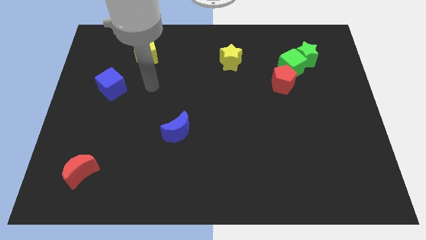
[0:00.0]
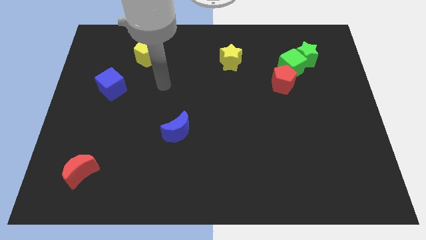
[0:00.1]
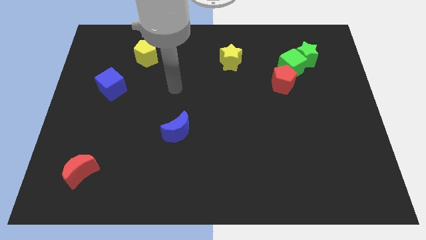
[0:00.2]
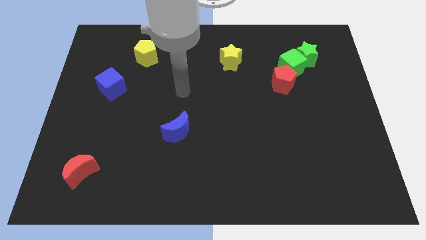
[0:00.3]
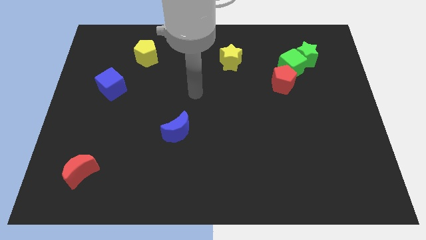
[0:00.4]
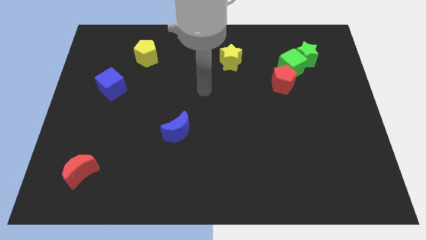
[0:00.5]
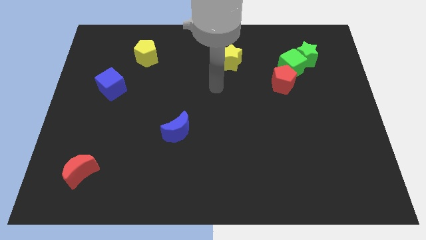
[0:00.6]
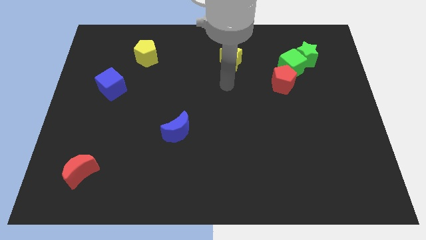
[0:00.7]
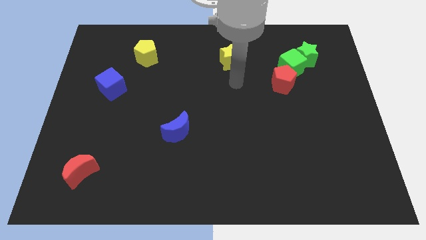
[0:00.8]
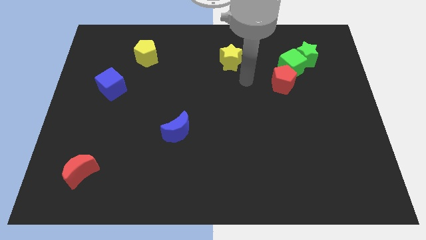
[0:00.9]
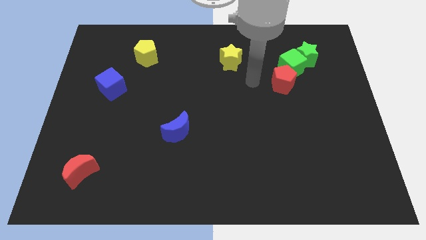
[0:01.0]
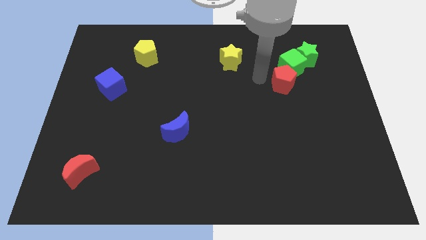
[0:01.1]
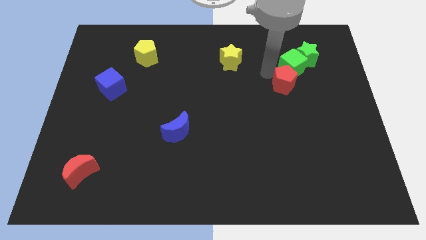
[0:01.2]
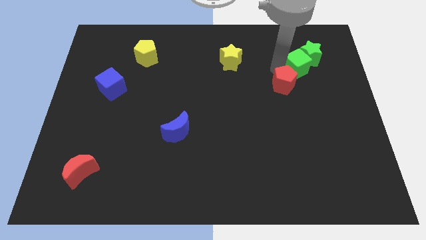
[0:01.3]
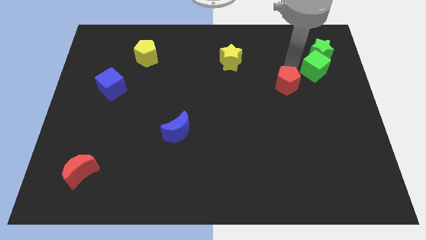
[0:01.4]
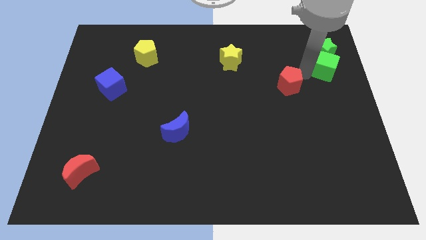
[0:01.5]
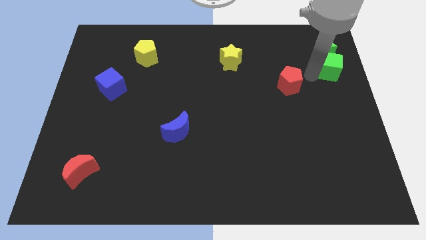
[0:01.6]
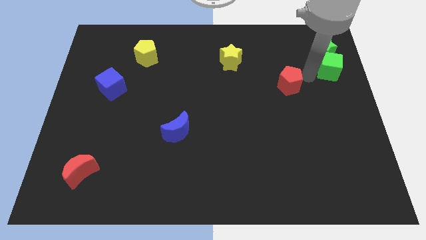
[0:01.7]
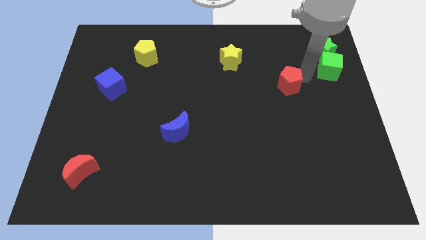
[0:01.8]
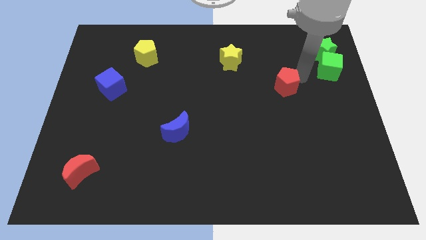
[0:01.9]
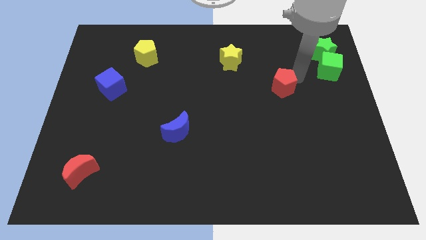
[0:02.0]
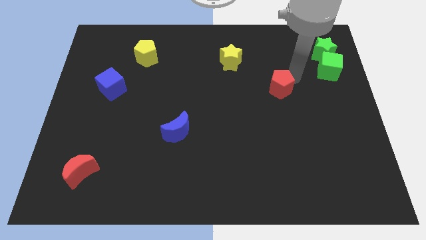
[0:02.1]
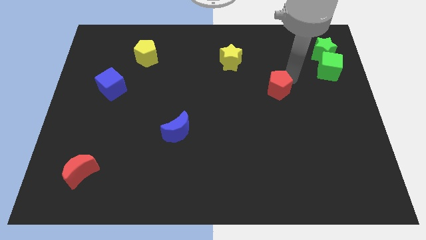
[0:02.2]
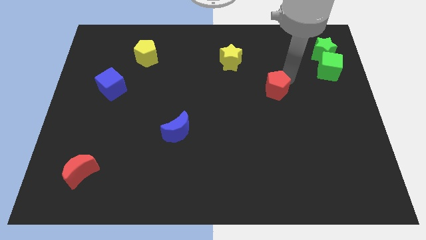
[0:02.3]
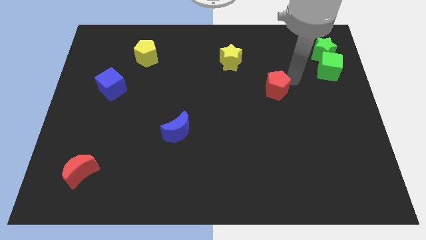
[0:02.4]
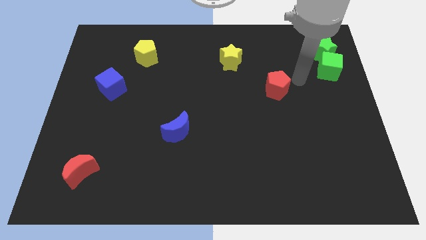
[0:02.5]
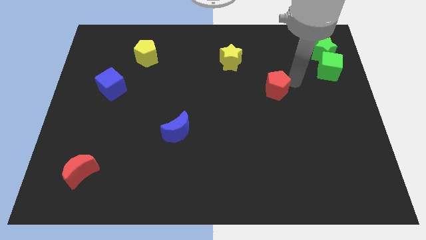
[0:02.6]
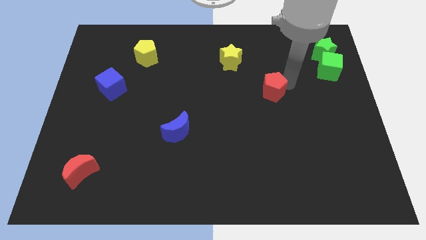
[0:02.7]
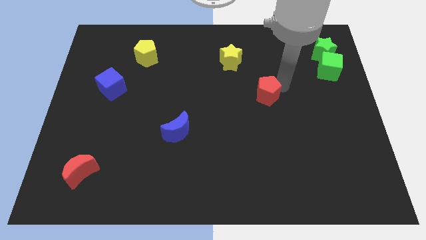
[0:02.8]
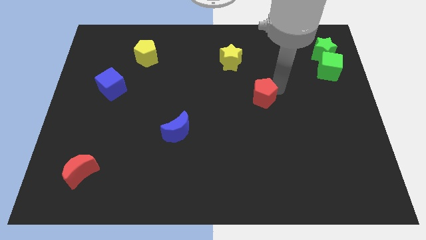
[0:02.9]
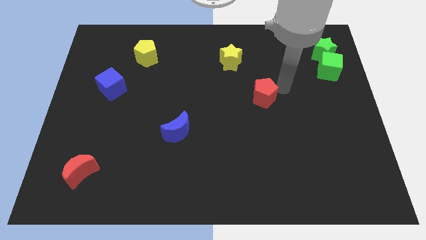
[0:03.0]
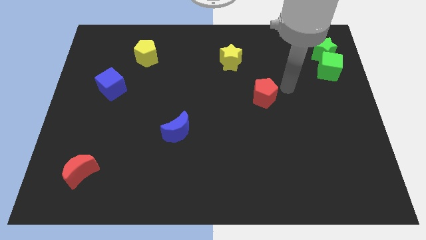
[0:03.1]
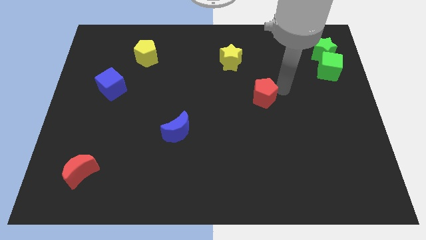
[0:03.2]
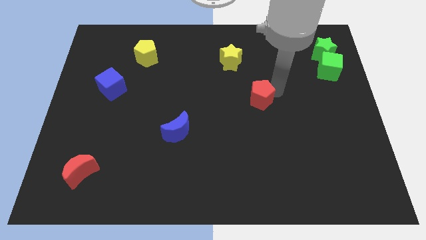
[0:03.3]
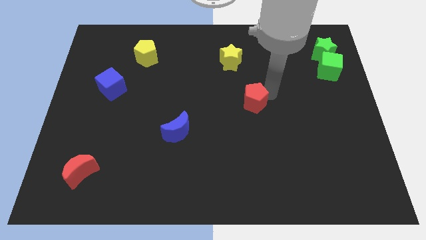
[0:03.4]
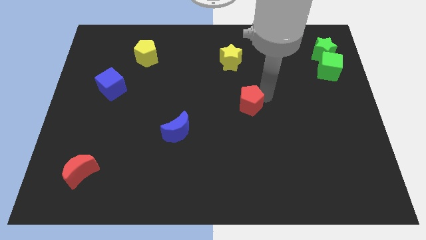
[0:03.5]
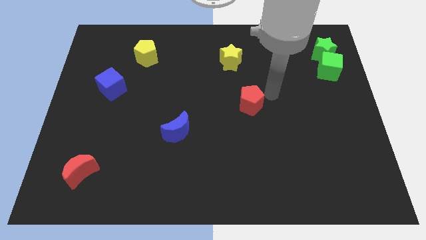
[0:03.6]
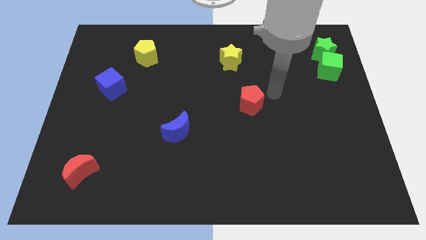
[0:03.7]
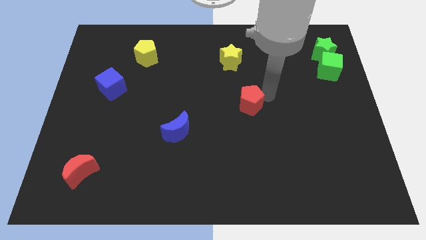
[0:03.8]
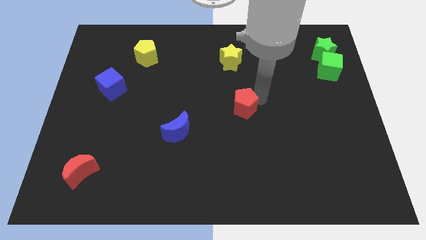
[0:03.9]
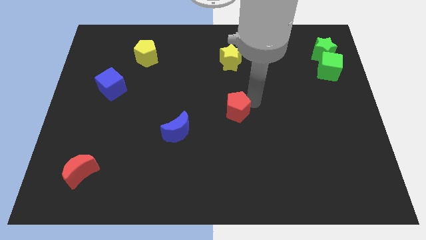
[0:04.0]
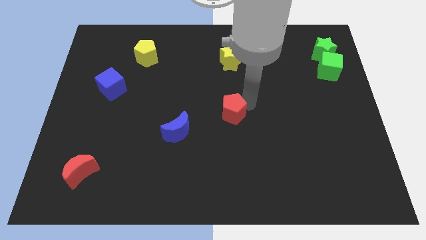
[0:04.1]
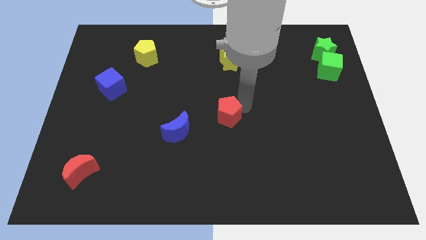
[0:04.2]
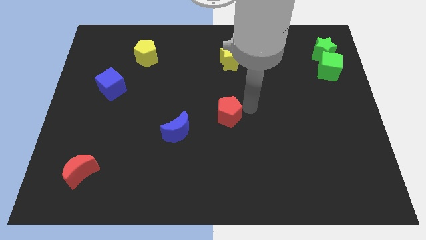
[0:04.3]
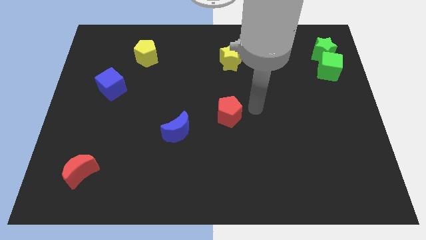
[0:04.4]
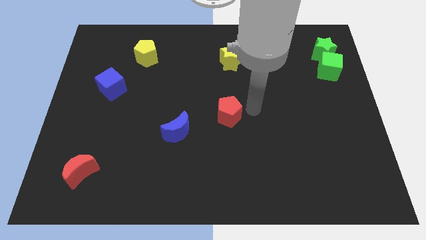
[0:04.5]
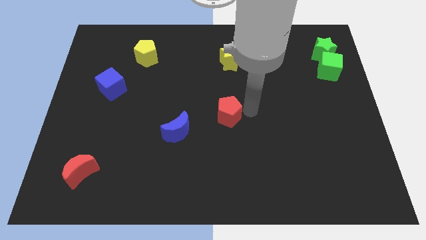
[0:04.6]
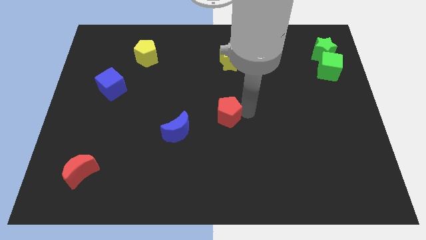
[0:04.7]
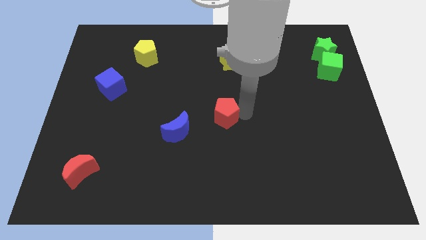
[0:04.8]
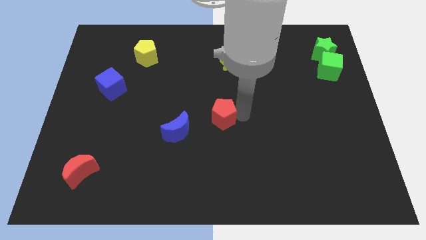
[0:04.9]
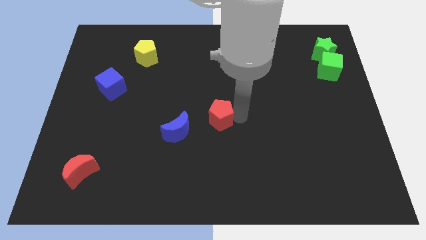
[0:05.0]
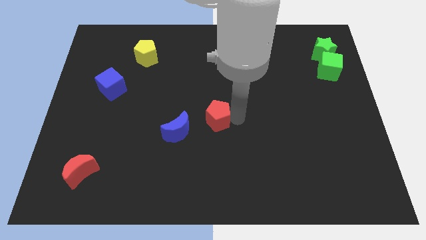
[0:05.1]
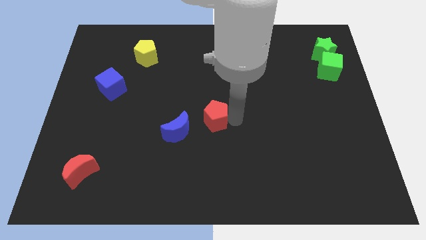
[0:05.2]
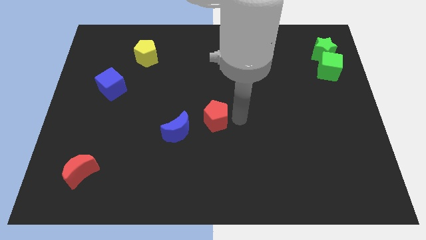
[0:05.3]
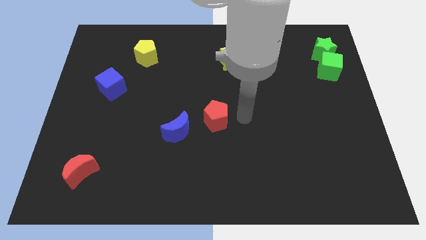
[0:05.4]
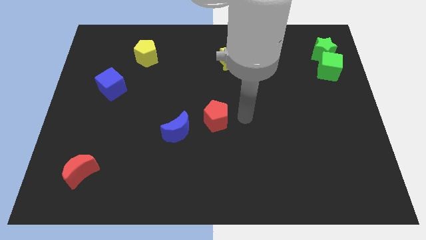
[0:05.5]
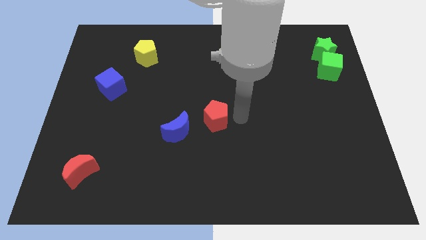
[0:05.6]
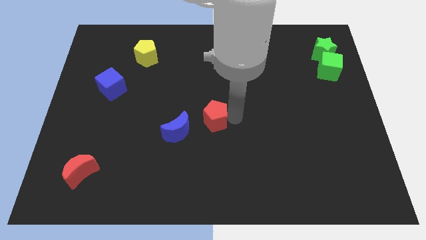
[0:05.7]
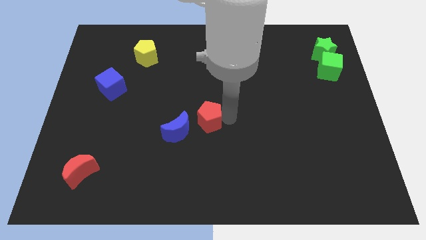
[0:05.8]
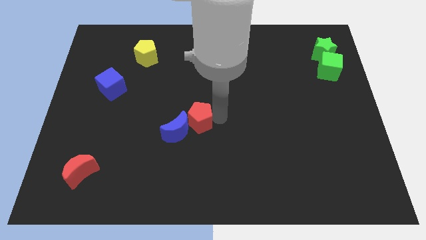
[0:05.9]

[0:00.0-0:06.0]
move the red pentagon close to the blue moon

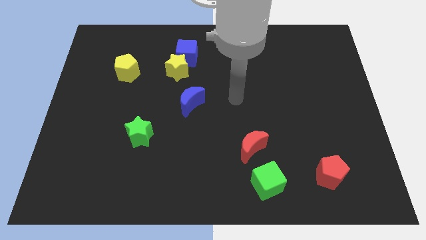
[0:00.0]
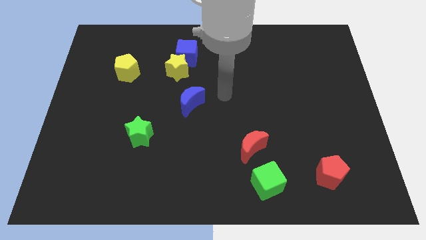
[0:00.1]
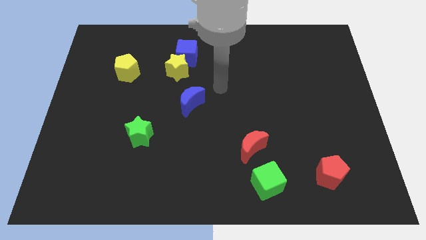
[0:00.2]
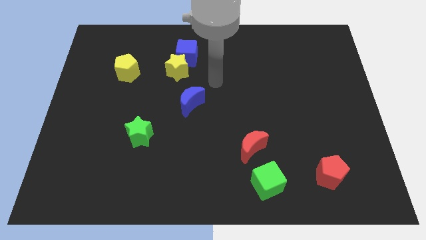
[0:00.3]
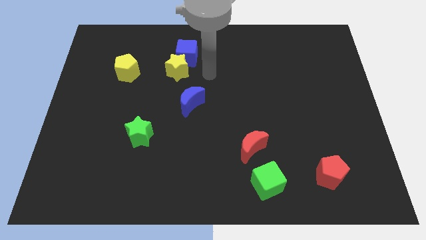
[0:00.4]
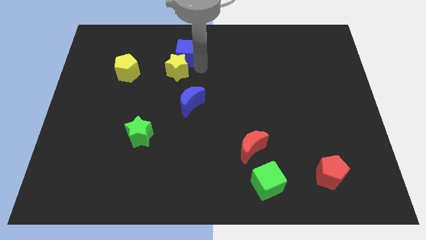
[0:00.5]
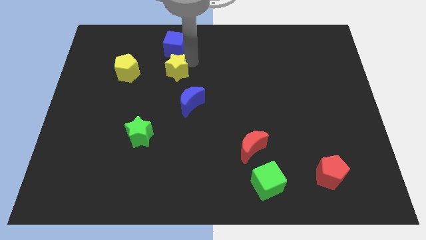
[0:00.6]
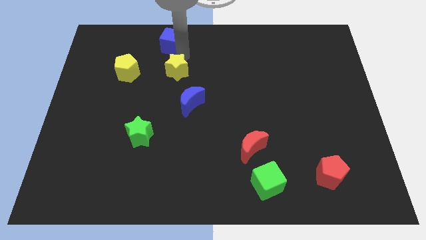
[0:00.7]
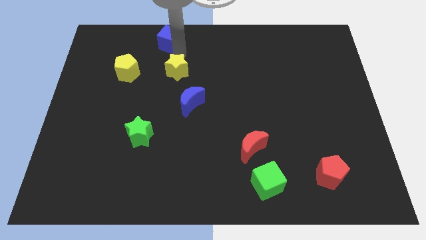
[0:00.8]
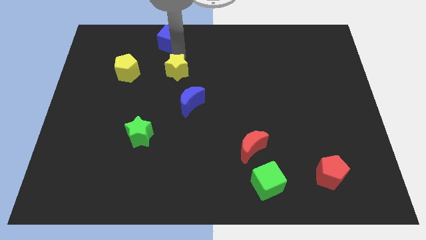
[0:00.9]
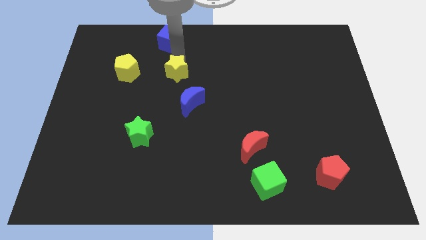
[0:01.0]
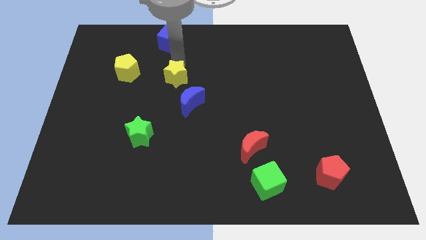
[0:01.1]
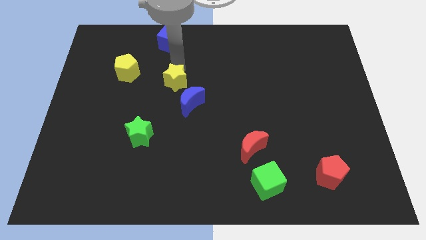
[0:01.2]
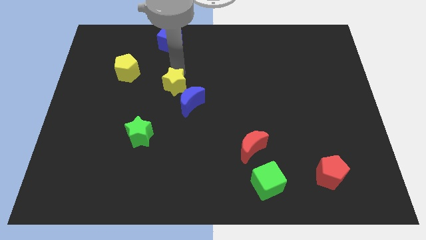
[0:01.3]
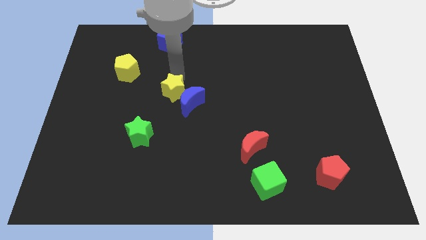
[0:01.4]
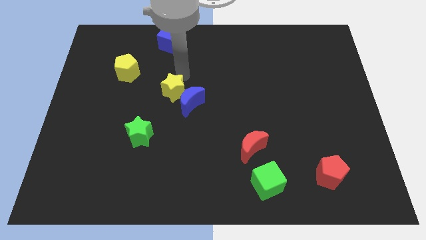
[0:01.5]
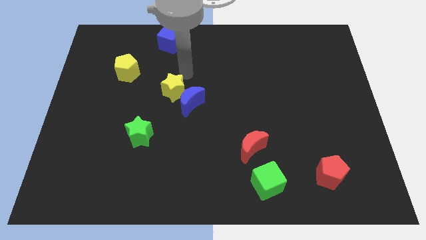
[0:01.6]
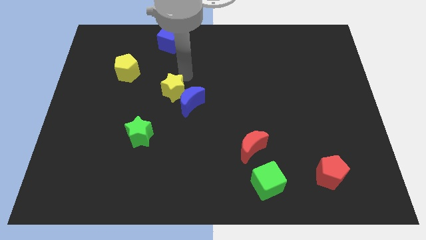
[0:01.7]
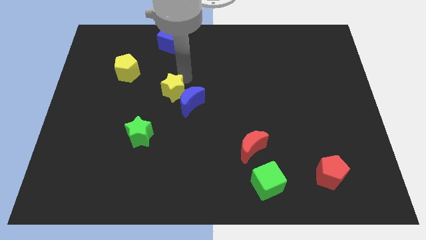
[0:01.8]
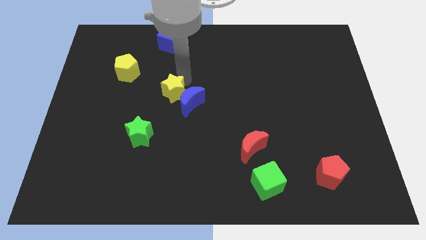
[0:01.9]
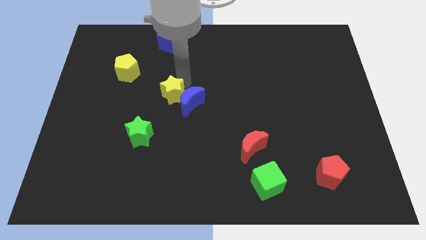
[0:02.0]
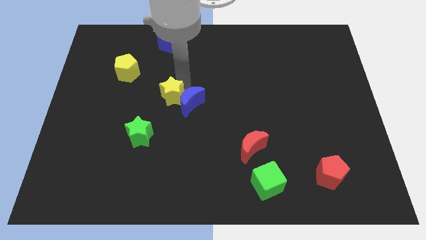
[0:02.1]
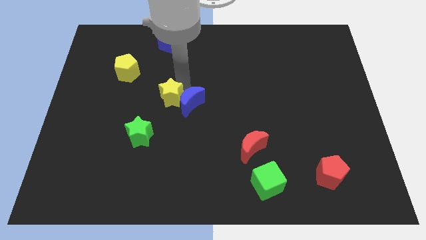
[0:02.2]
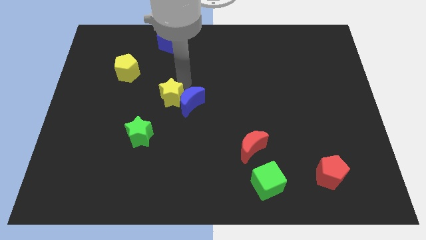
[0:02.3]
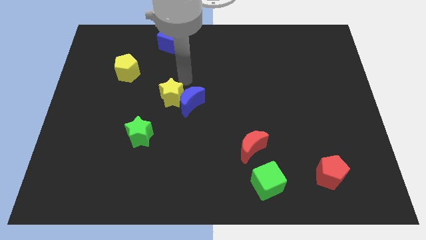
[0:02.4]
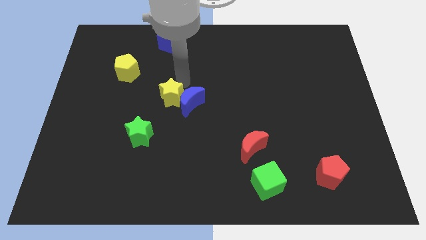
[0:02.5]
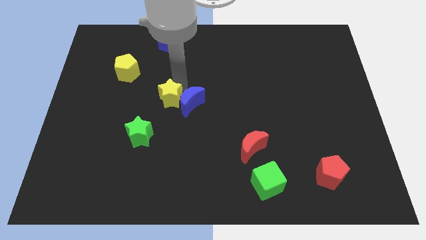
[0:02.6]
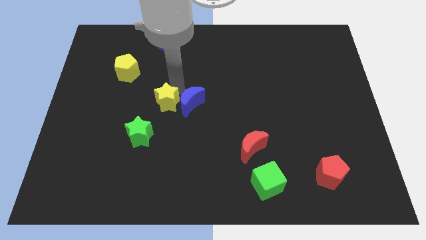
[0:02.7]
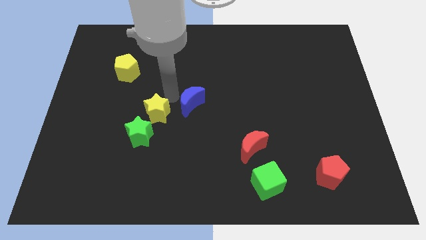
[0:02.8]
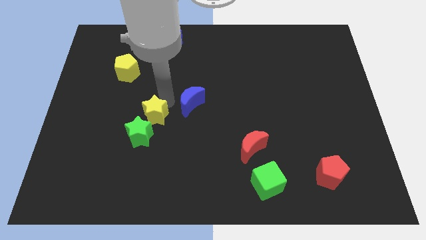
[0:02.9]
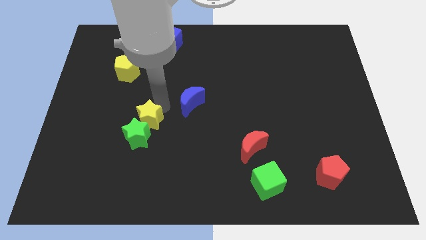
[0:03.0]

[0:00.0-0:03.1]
slide the yellow star close to the green star
